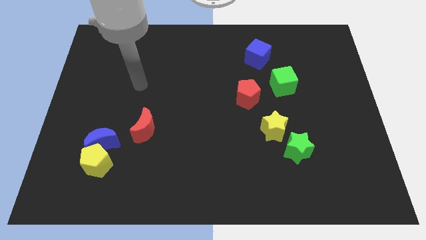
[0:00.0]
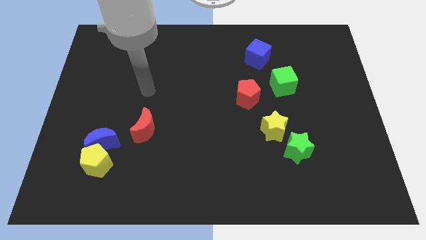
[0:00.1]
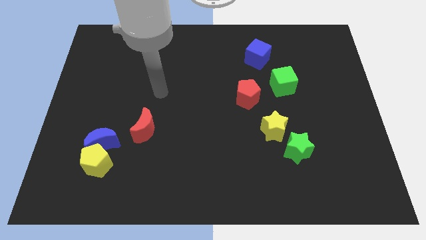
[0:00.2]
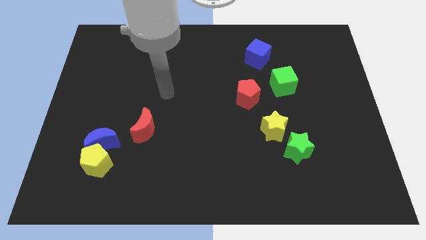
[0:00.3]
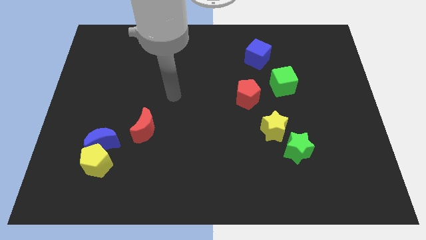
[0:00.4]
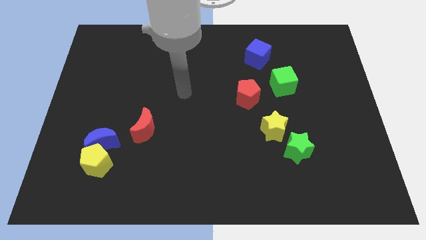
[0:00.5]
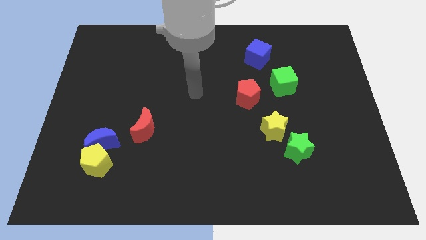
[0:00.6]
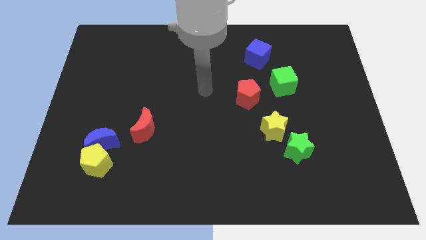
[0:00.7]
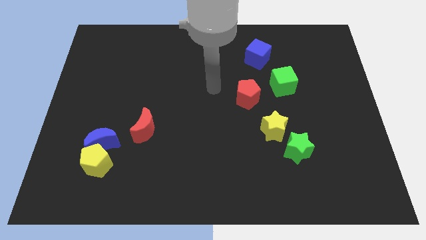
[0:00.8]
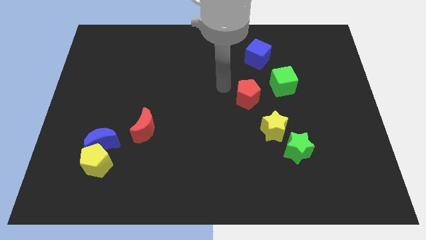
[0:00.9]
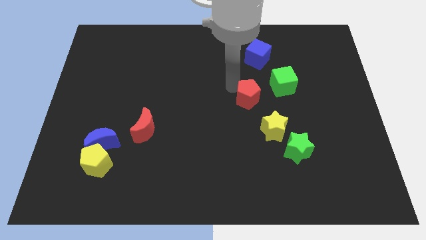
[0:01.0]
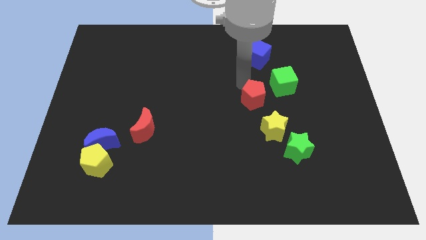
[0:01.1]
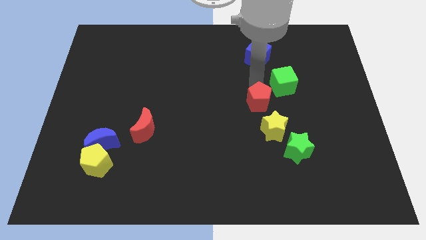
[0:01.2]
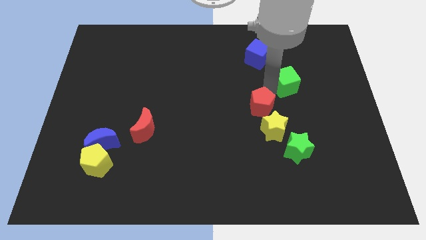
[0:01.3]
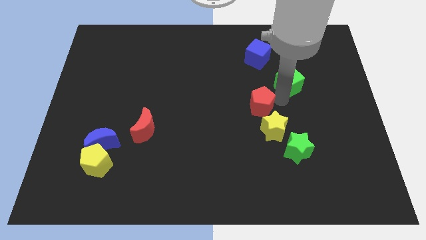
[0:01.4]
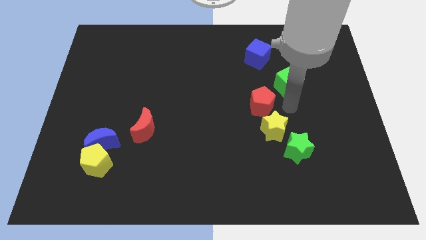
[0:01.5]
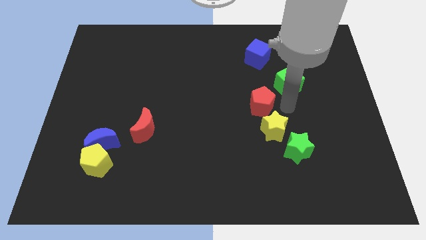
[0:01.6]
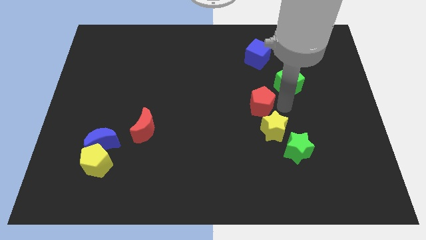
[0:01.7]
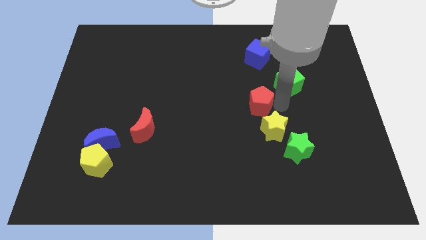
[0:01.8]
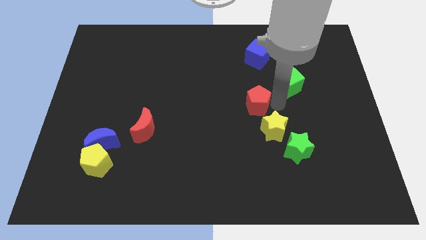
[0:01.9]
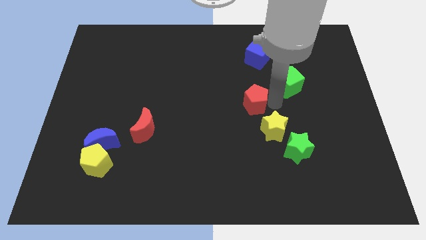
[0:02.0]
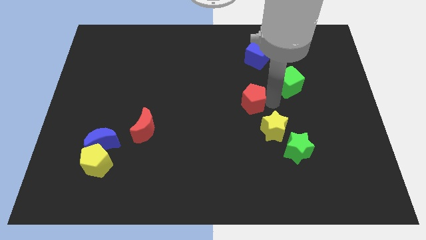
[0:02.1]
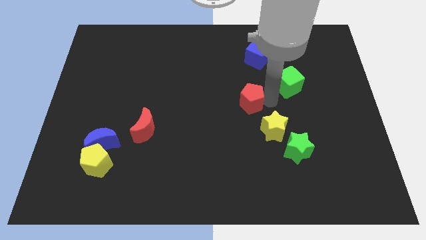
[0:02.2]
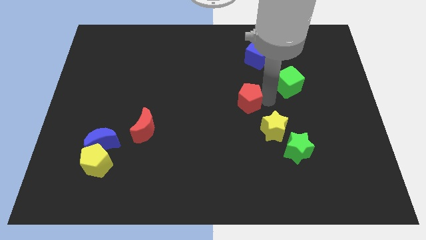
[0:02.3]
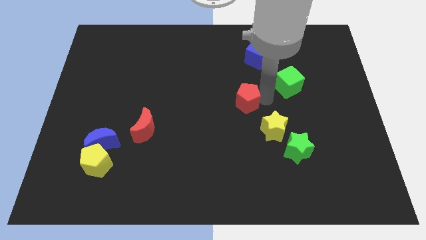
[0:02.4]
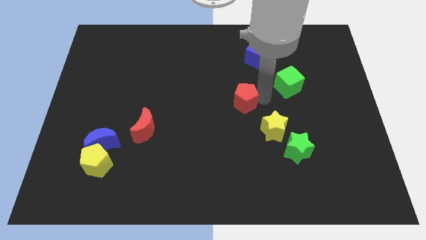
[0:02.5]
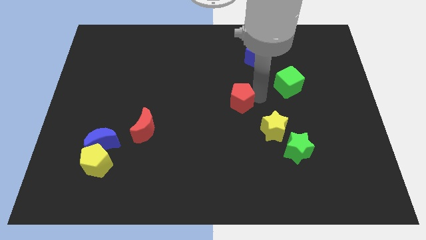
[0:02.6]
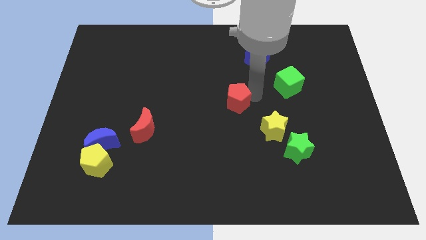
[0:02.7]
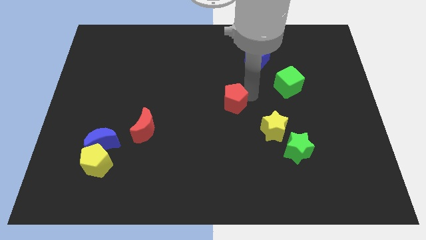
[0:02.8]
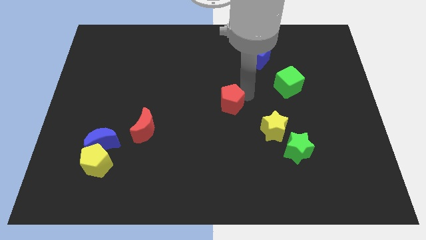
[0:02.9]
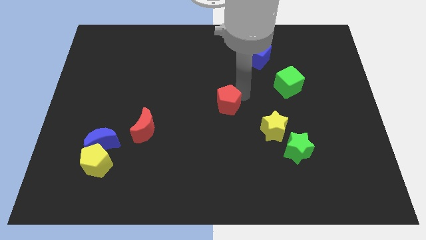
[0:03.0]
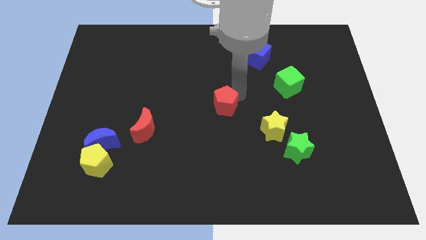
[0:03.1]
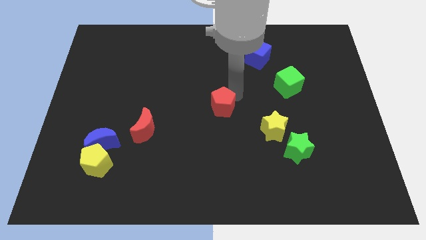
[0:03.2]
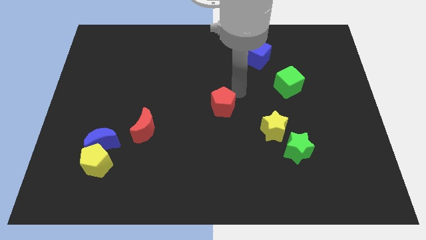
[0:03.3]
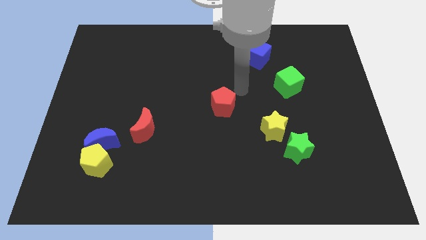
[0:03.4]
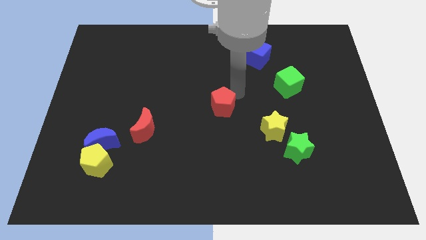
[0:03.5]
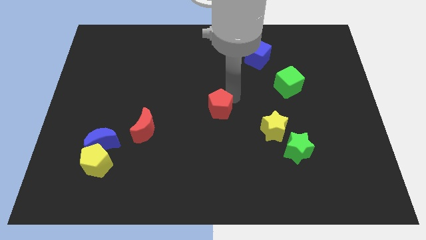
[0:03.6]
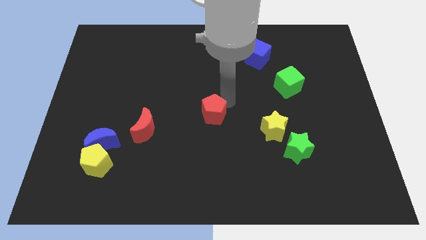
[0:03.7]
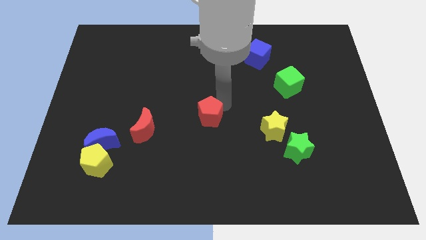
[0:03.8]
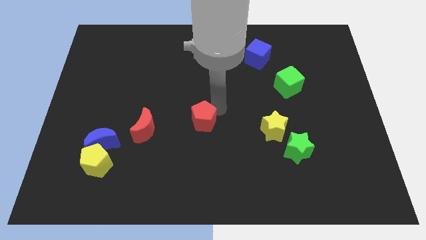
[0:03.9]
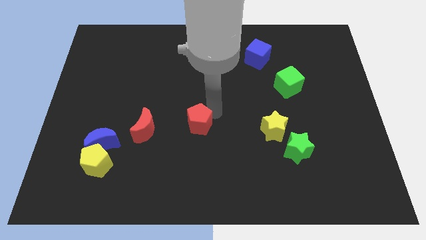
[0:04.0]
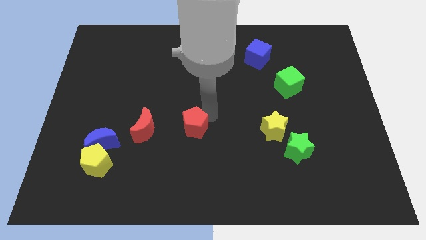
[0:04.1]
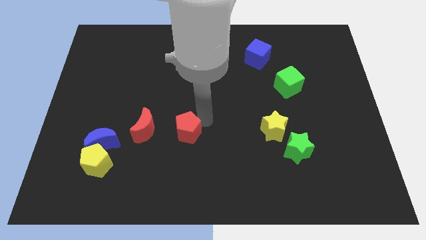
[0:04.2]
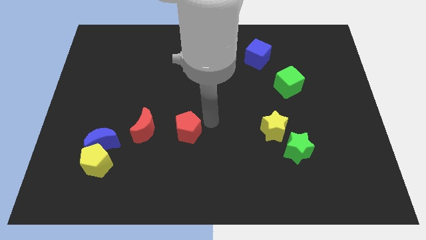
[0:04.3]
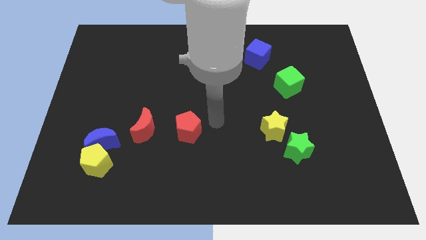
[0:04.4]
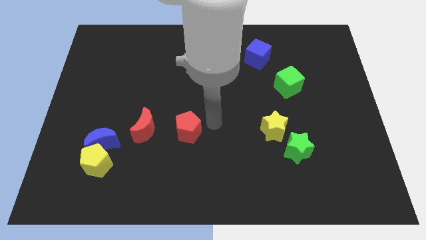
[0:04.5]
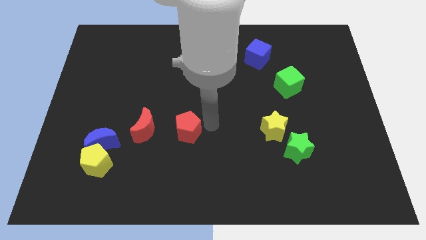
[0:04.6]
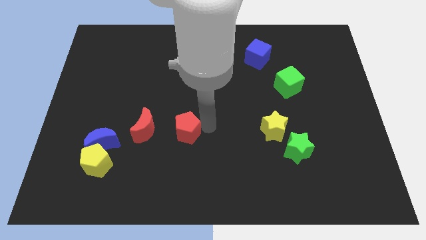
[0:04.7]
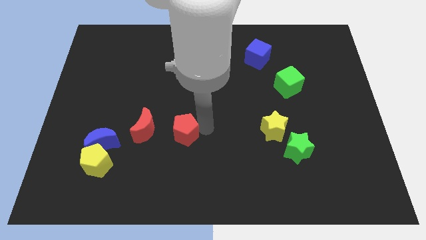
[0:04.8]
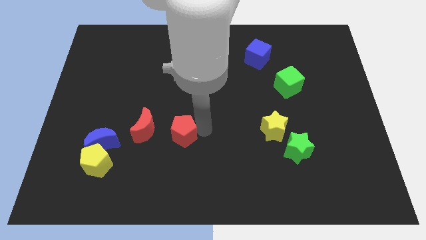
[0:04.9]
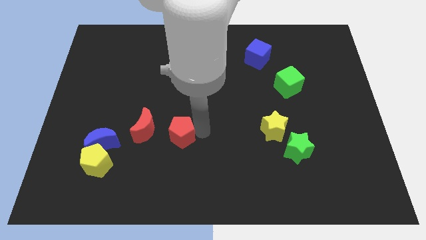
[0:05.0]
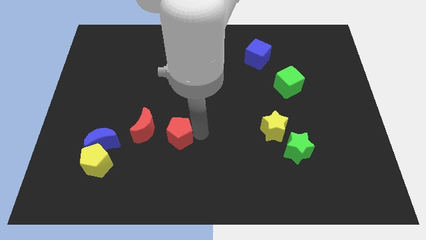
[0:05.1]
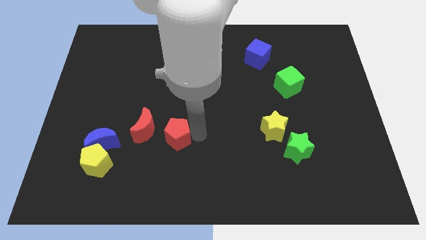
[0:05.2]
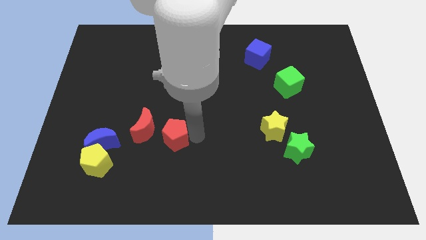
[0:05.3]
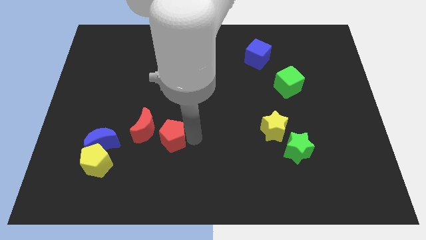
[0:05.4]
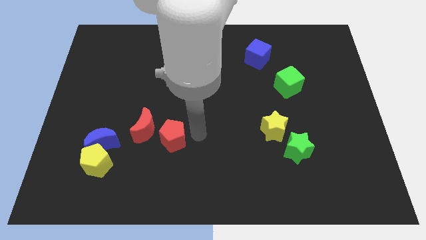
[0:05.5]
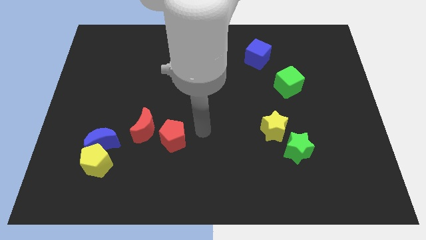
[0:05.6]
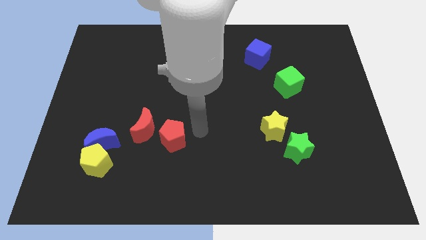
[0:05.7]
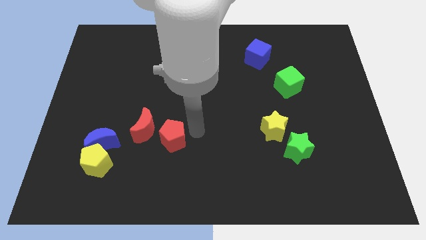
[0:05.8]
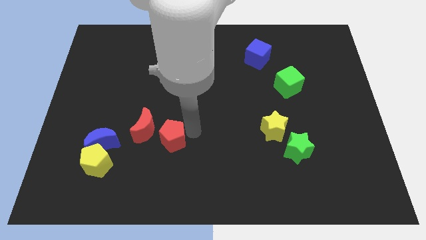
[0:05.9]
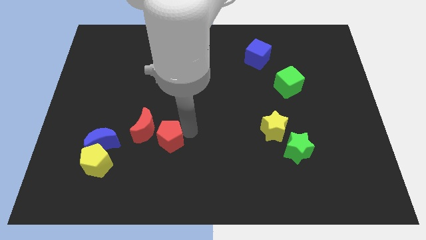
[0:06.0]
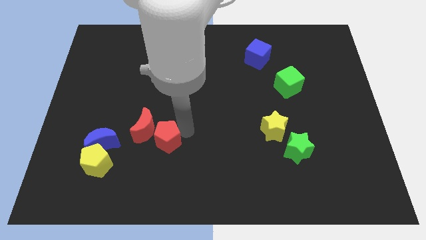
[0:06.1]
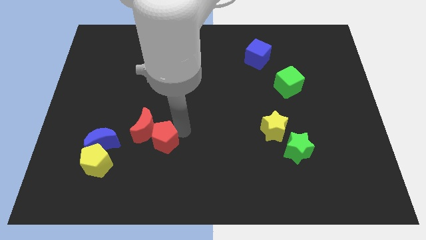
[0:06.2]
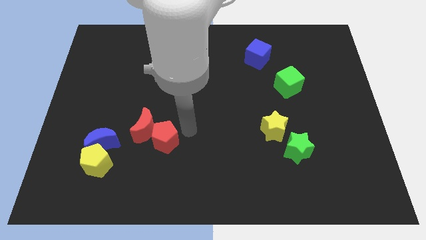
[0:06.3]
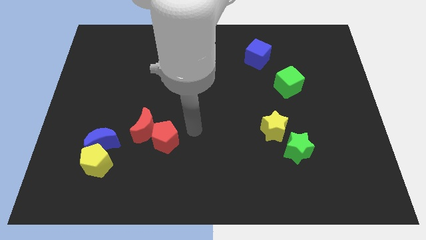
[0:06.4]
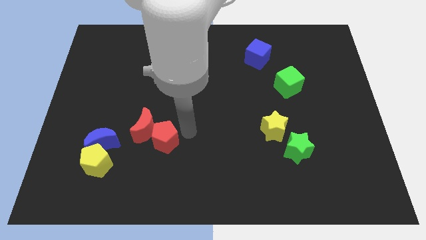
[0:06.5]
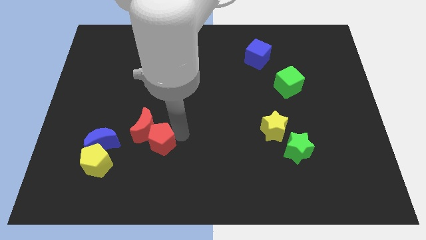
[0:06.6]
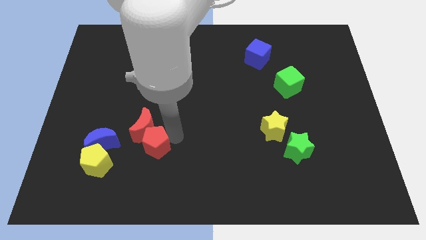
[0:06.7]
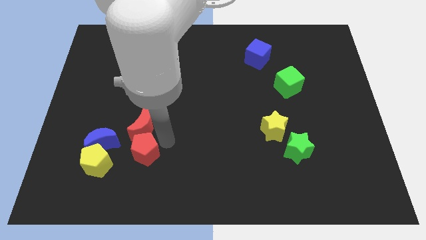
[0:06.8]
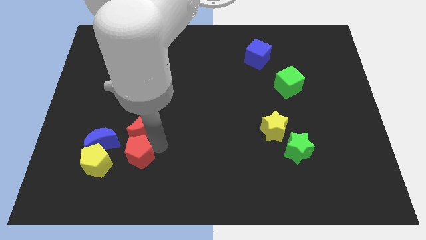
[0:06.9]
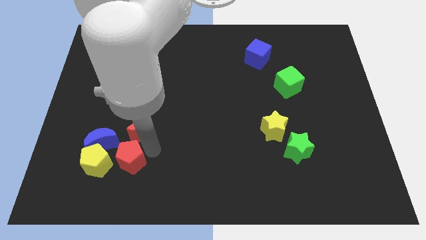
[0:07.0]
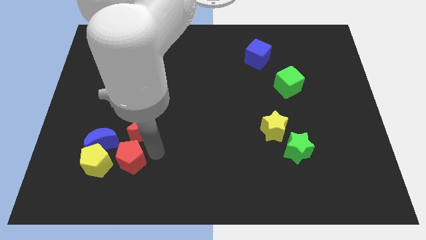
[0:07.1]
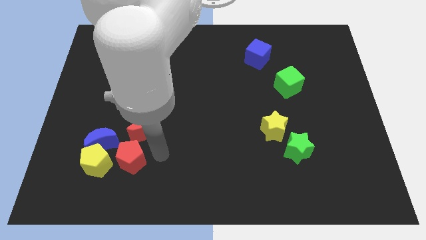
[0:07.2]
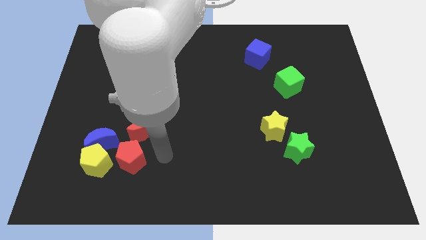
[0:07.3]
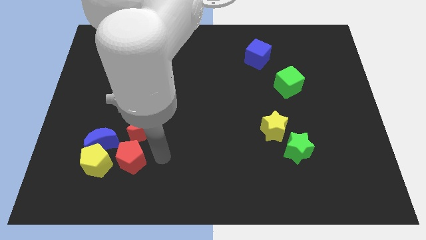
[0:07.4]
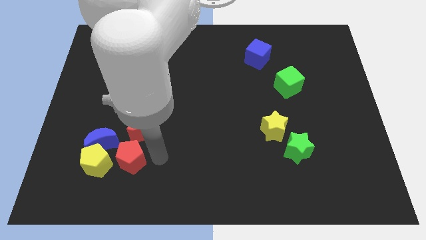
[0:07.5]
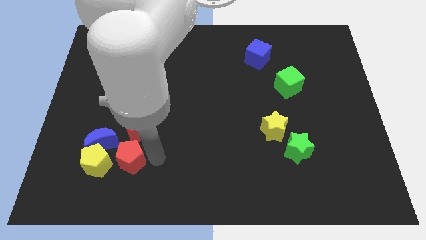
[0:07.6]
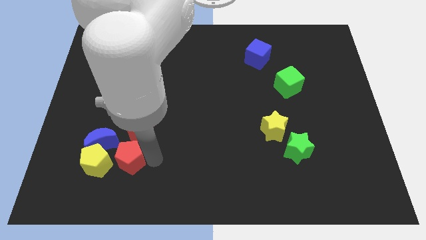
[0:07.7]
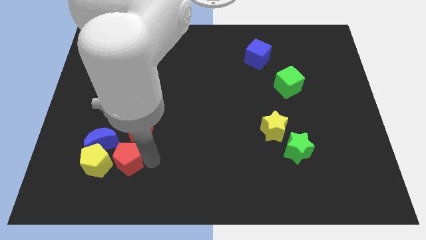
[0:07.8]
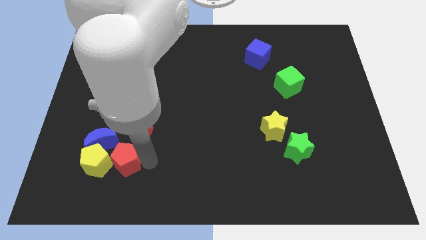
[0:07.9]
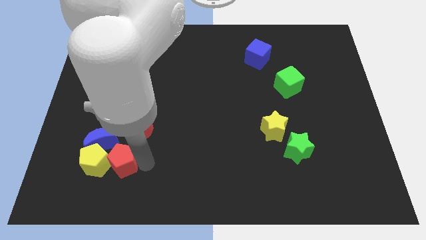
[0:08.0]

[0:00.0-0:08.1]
put the red pentagon towards the yellow pentagon
